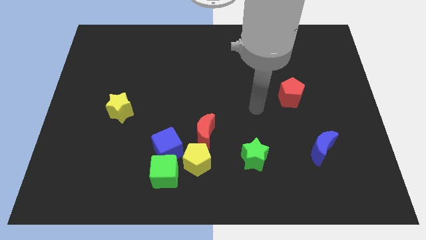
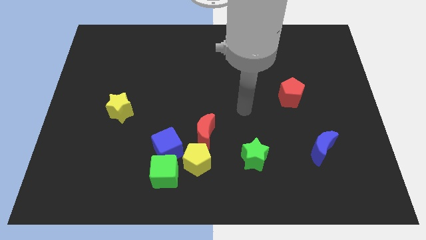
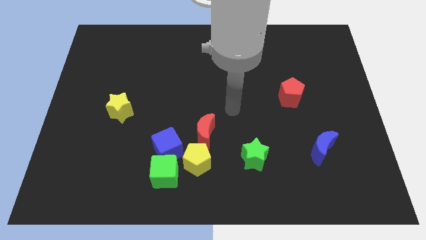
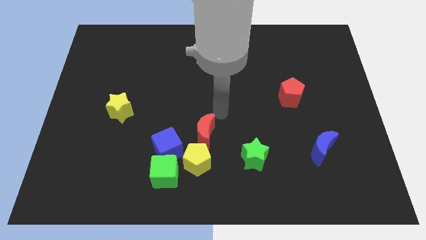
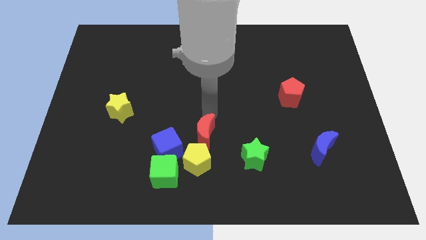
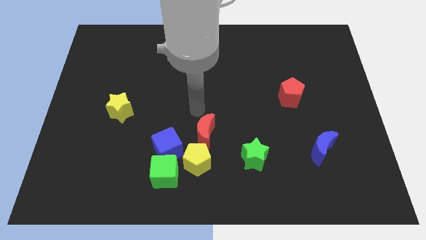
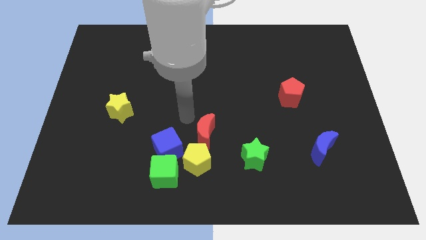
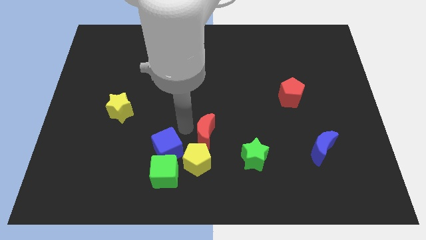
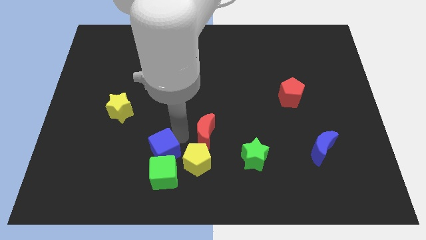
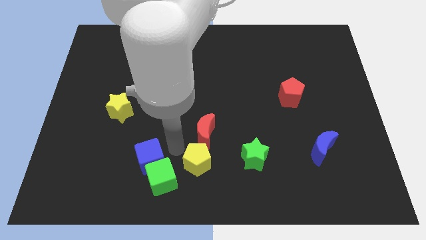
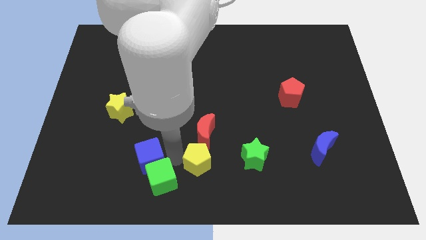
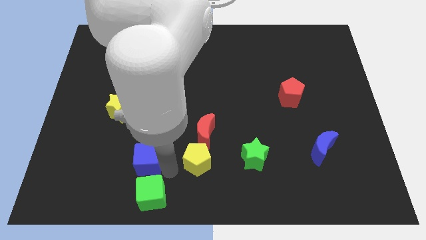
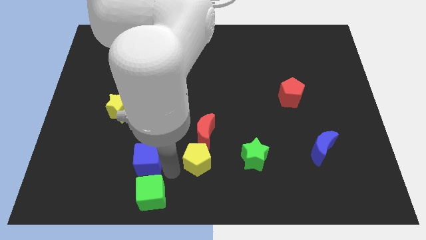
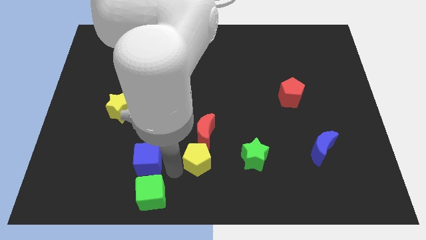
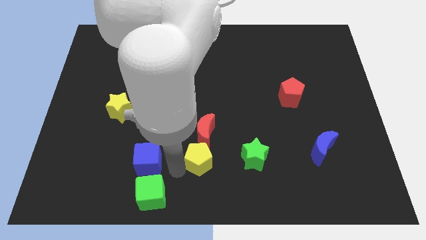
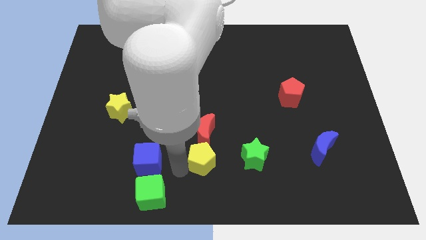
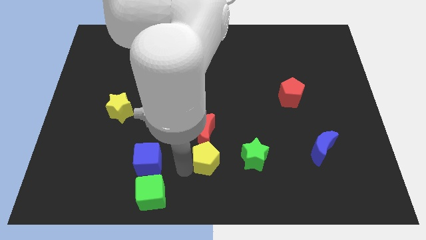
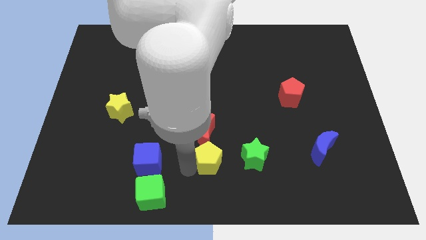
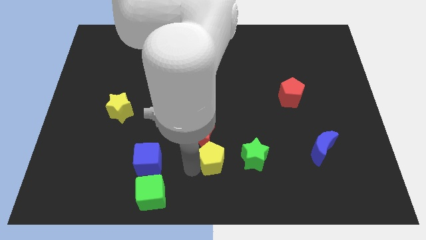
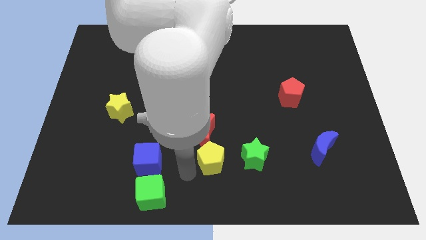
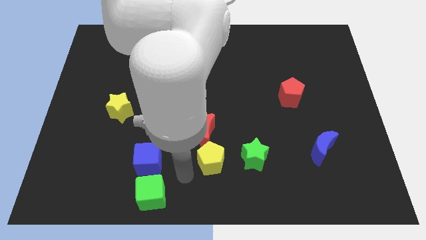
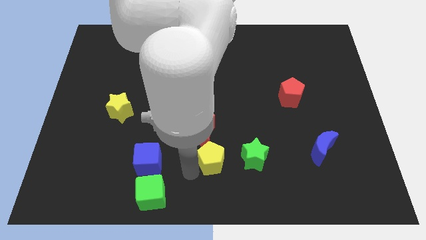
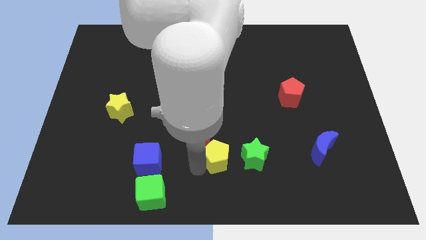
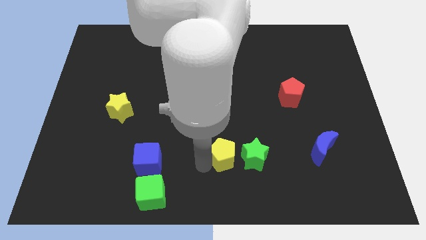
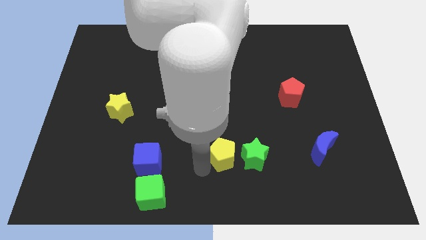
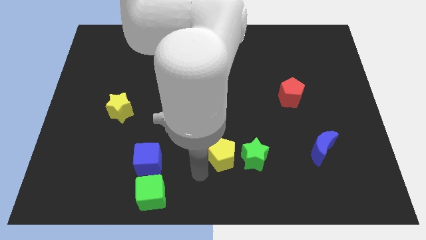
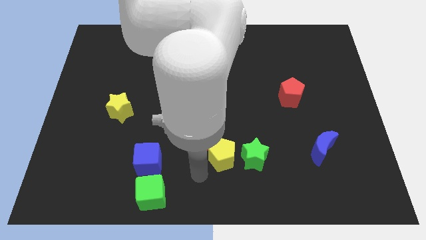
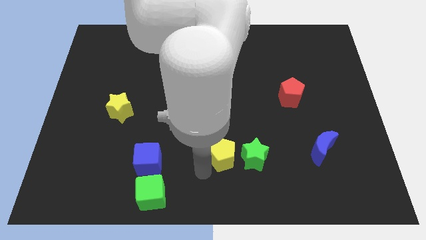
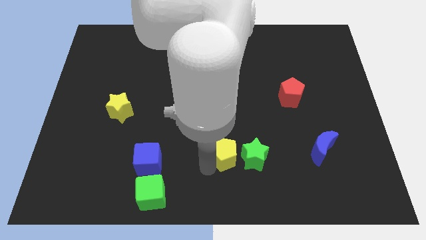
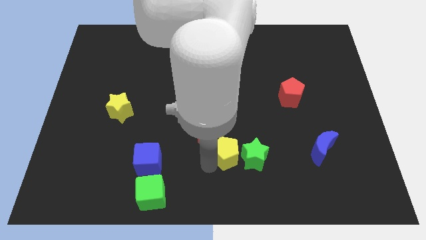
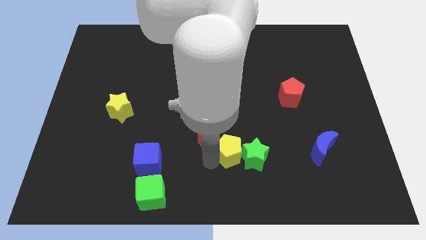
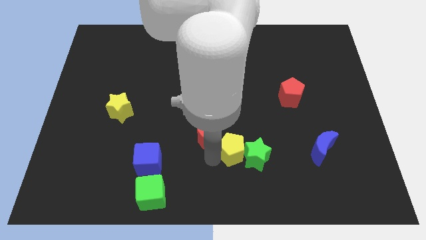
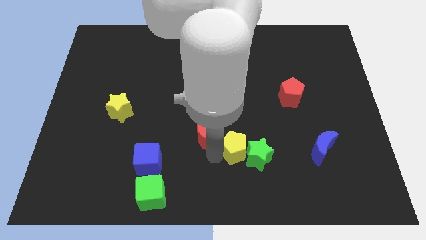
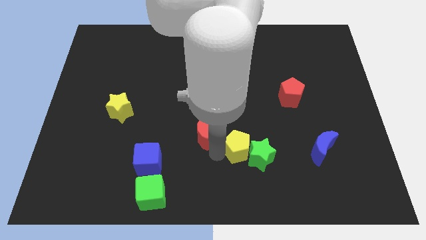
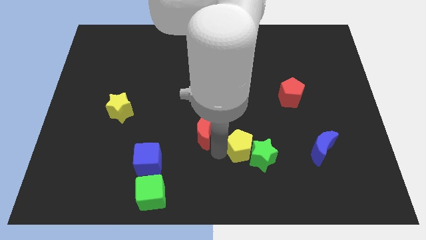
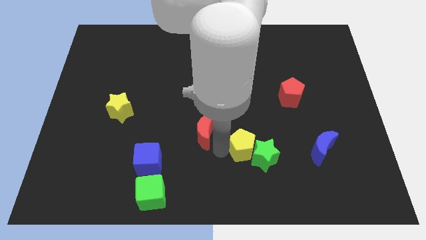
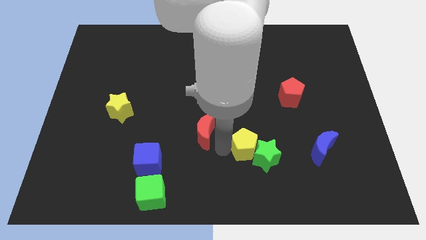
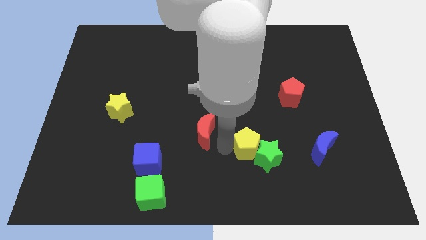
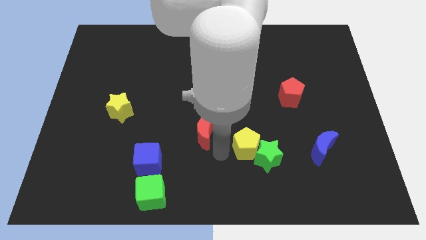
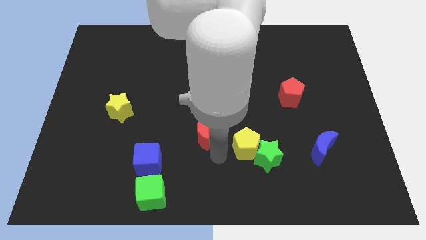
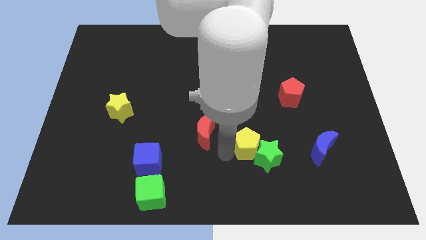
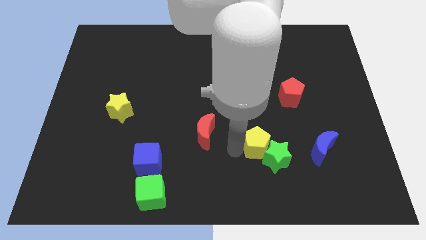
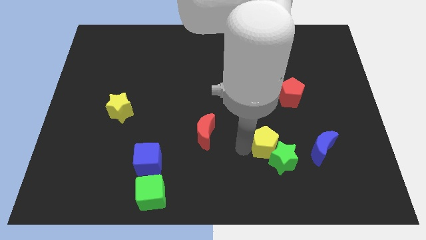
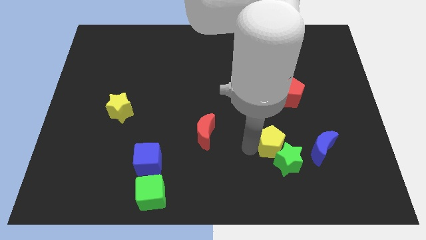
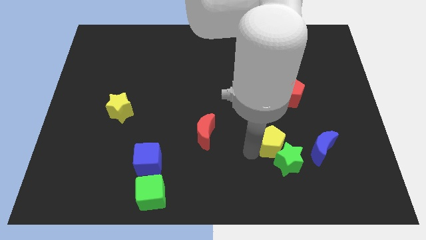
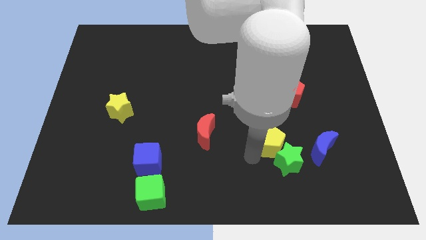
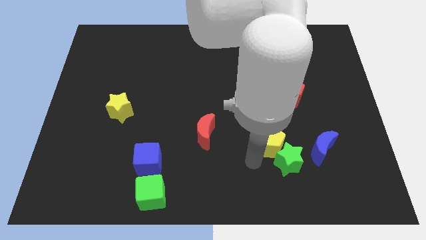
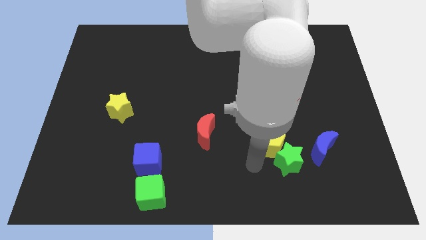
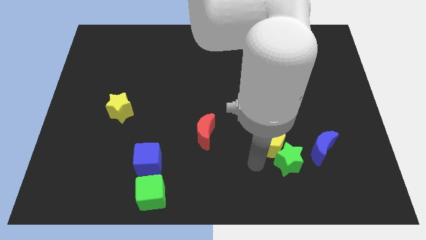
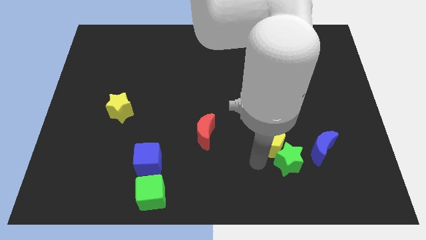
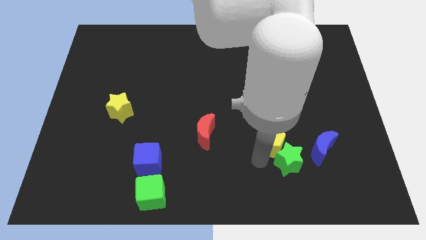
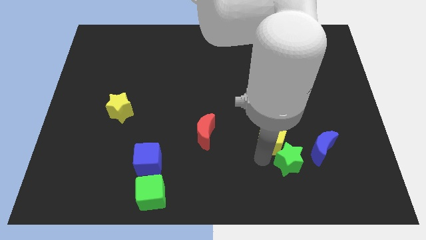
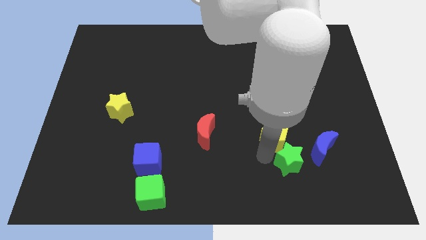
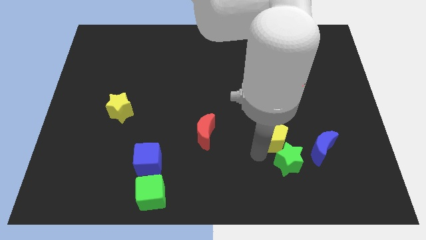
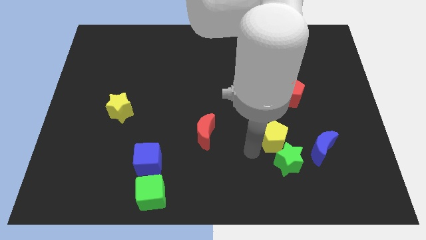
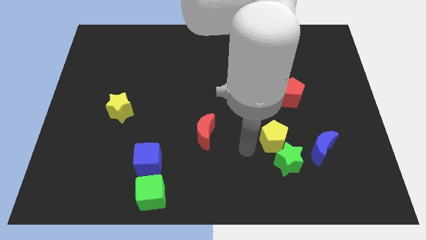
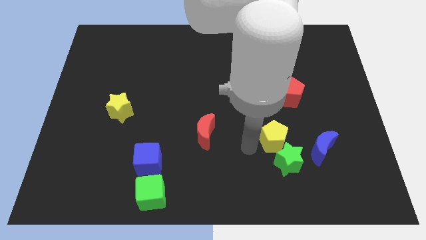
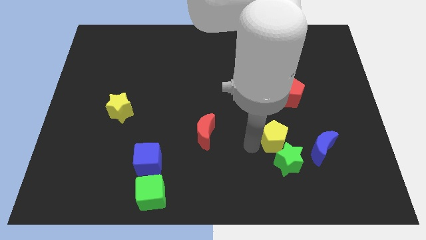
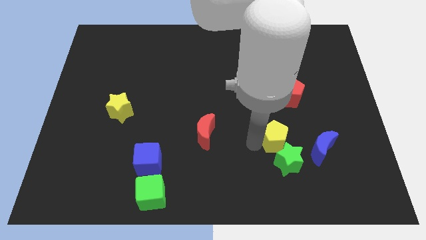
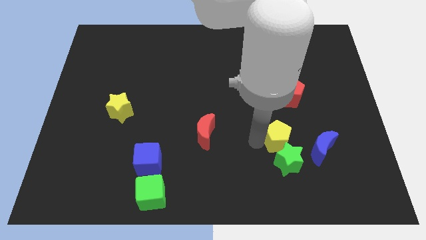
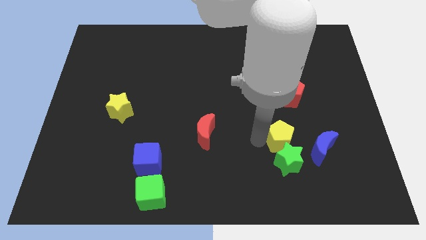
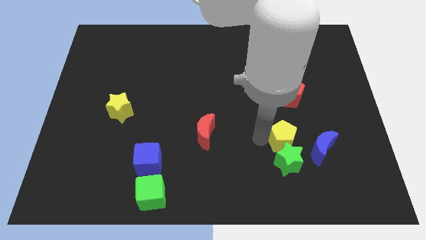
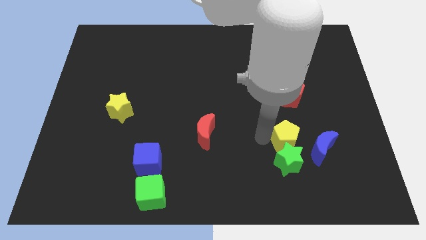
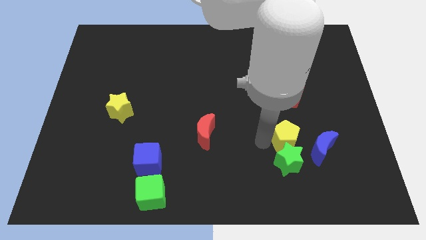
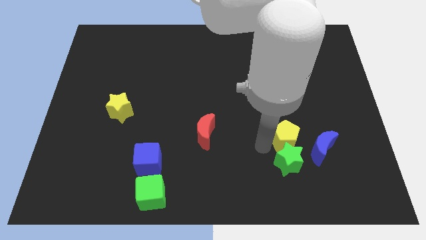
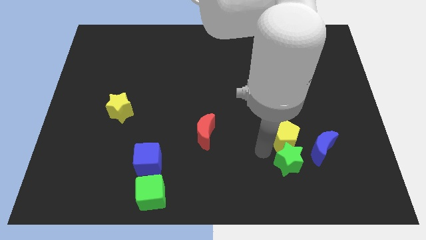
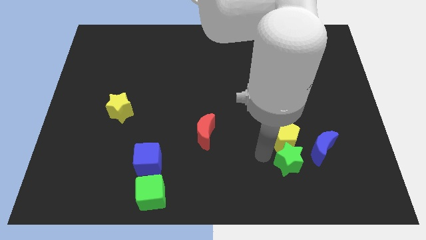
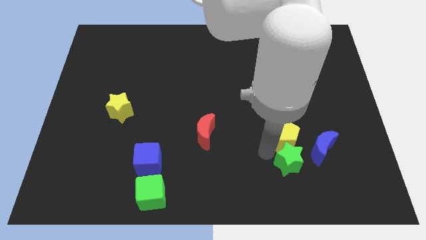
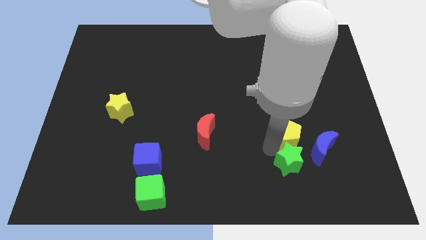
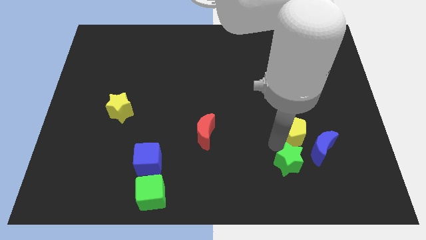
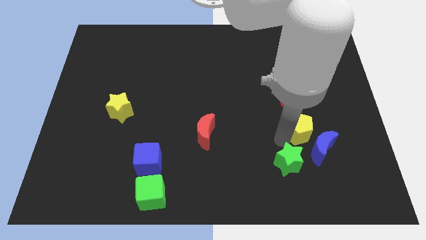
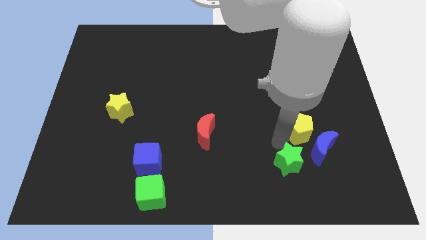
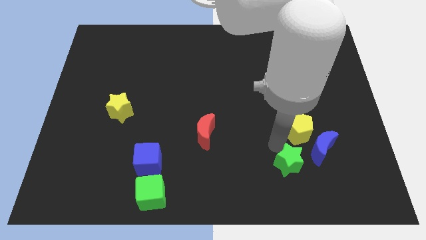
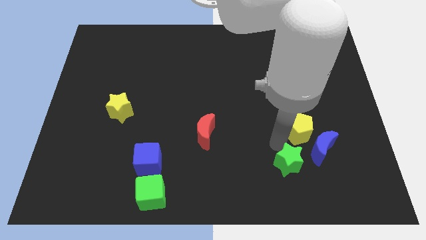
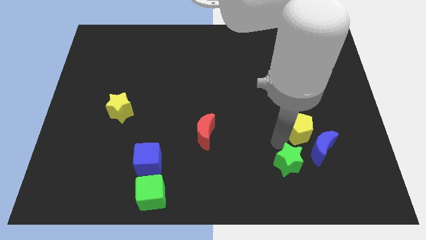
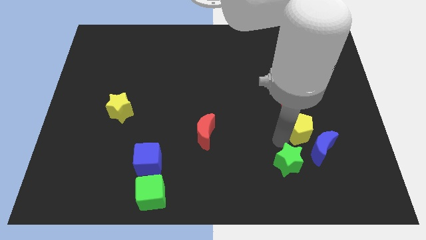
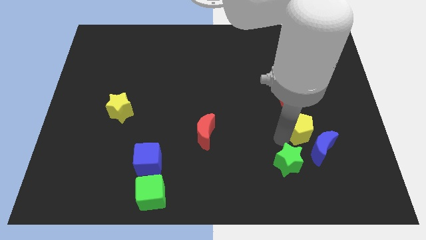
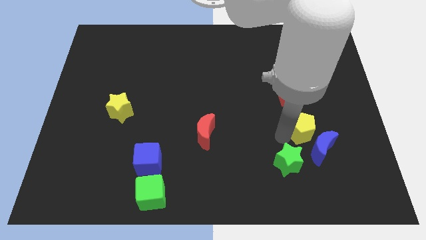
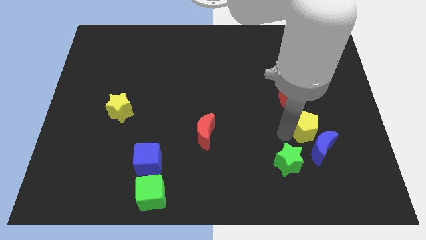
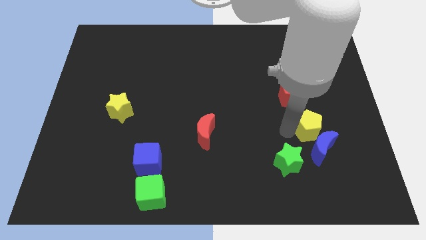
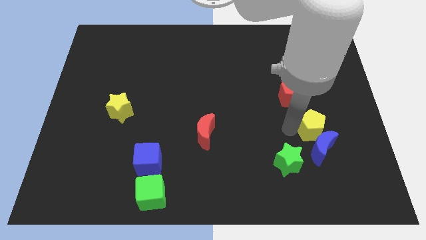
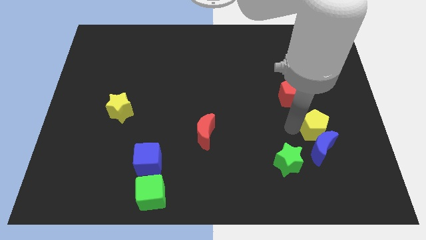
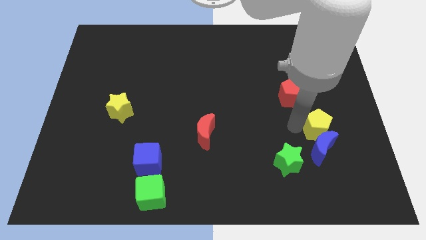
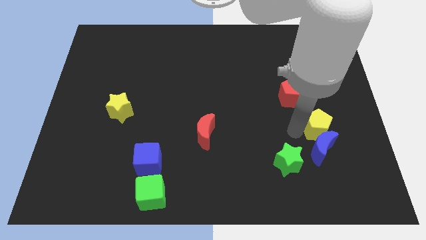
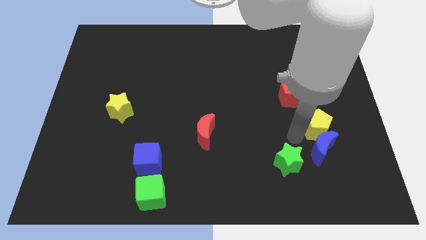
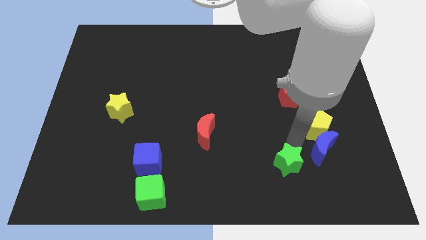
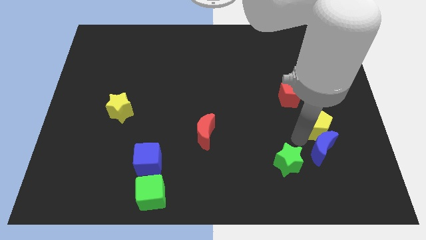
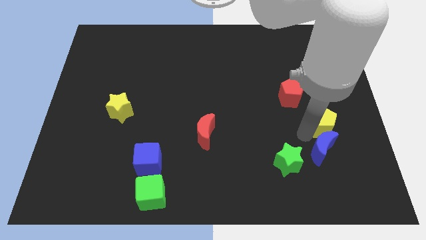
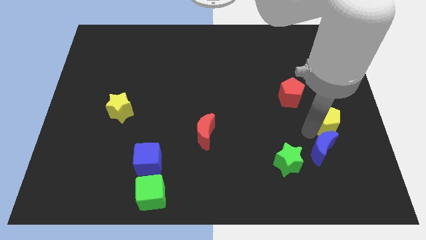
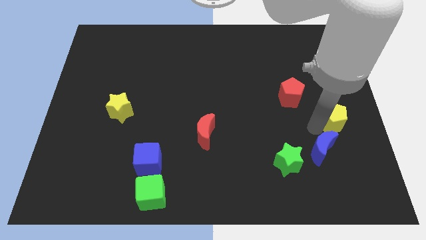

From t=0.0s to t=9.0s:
put the yellow pentagon to the right side of the board
